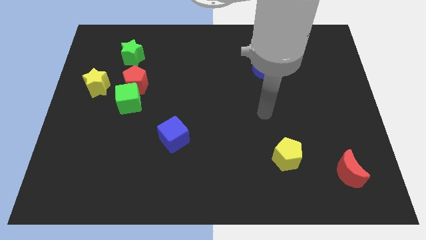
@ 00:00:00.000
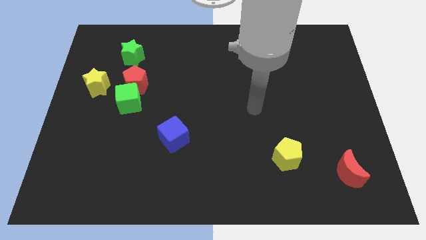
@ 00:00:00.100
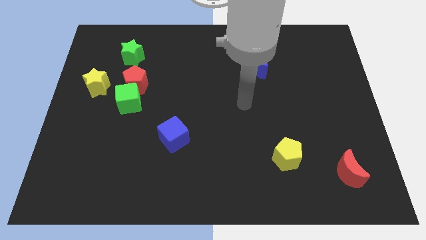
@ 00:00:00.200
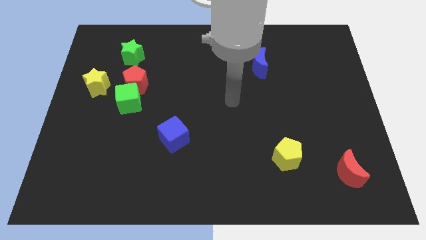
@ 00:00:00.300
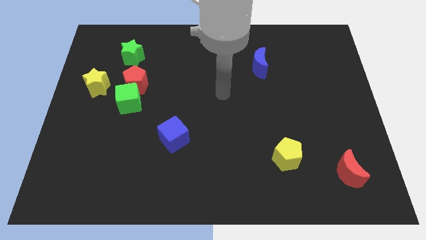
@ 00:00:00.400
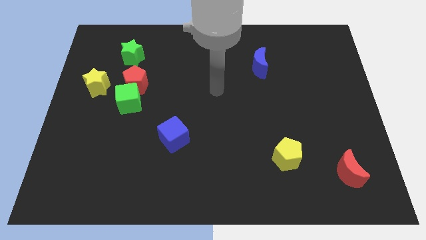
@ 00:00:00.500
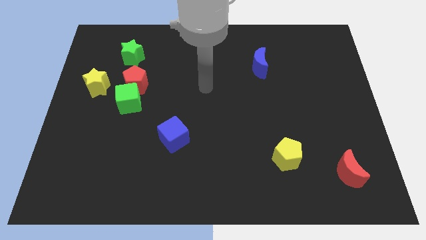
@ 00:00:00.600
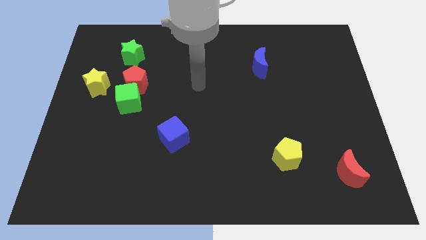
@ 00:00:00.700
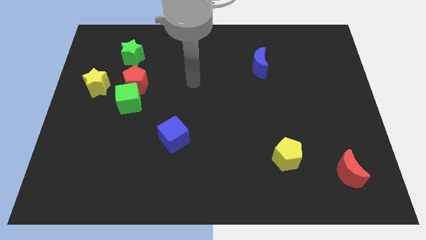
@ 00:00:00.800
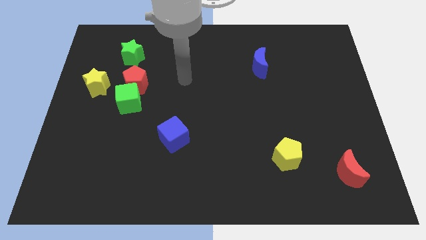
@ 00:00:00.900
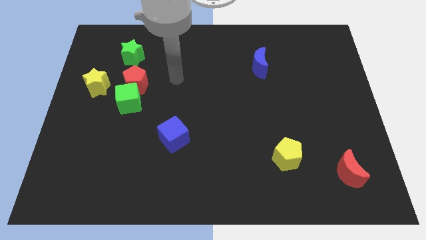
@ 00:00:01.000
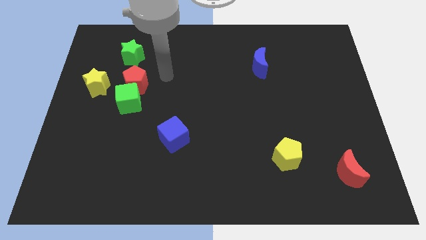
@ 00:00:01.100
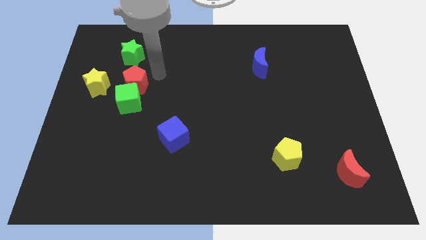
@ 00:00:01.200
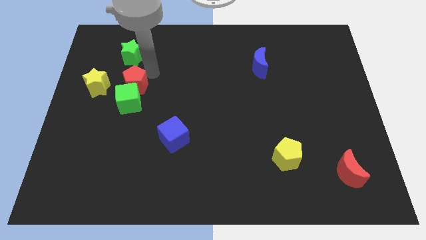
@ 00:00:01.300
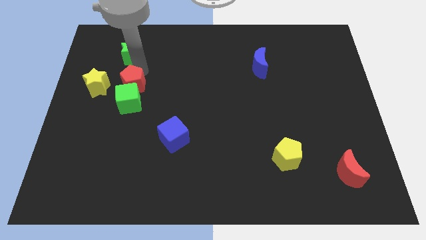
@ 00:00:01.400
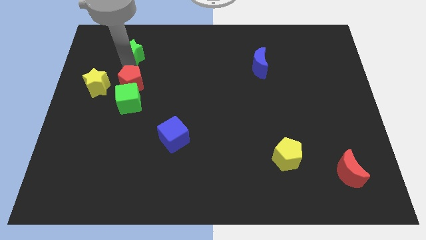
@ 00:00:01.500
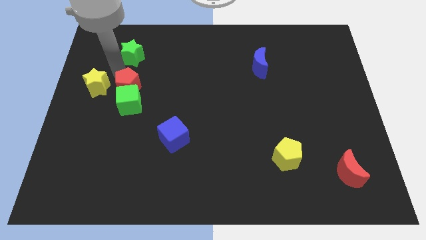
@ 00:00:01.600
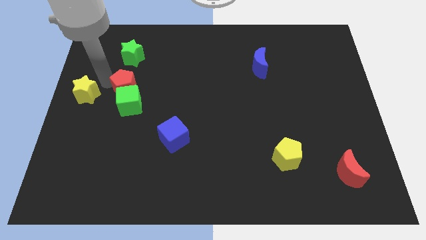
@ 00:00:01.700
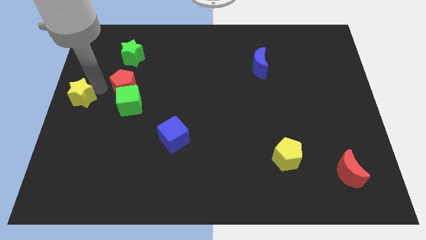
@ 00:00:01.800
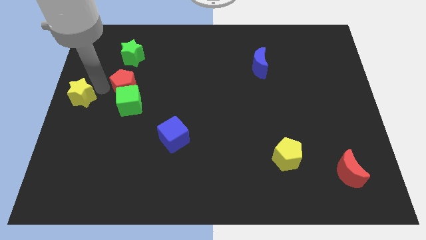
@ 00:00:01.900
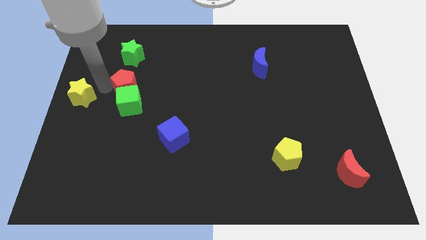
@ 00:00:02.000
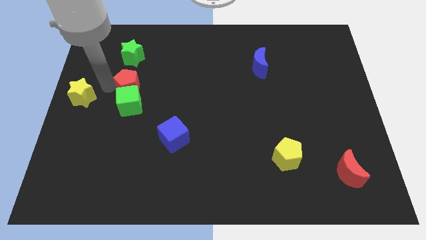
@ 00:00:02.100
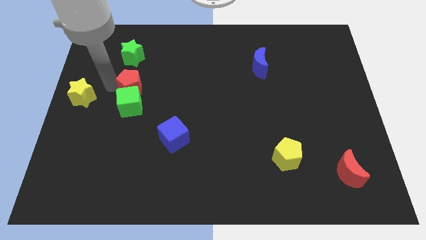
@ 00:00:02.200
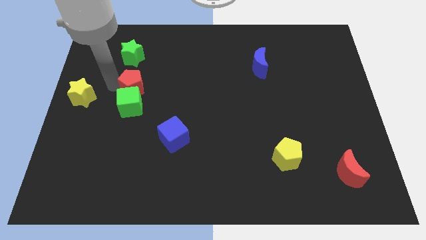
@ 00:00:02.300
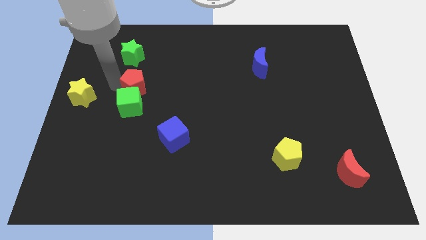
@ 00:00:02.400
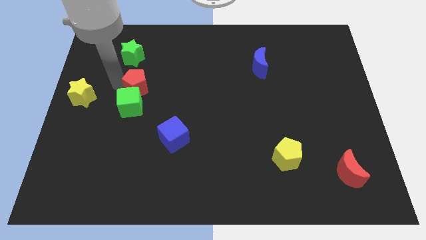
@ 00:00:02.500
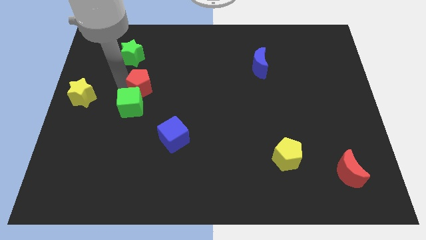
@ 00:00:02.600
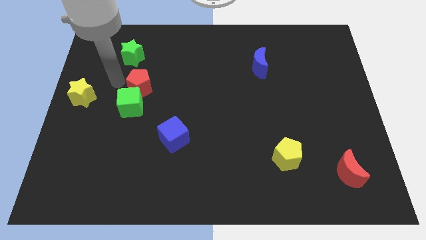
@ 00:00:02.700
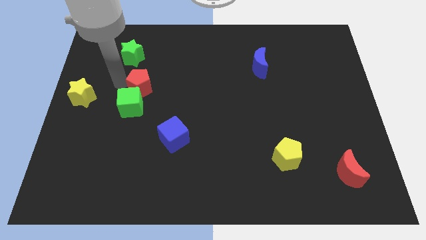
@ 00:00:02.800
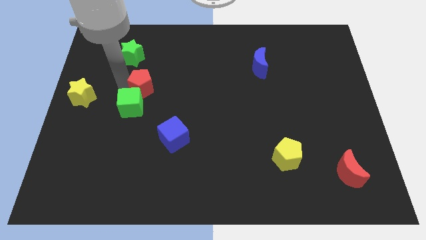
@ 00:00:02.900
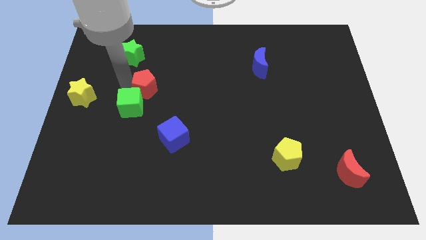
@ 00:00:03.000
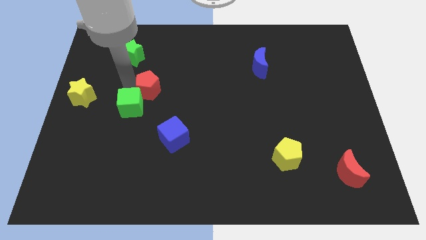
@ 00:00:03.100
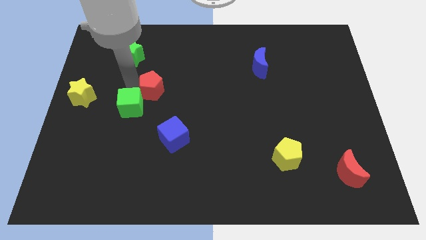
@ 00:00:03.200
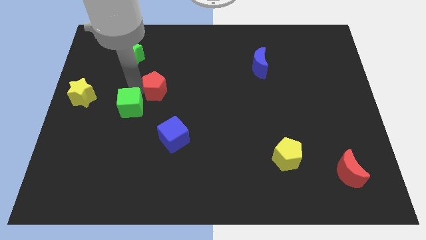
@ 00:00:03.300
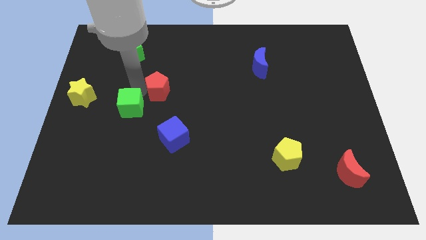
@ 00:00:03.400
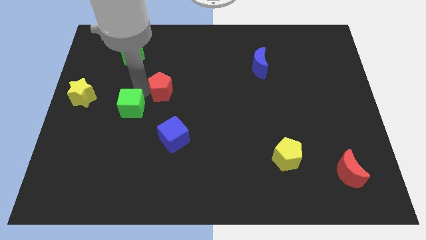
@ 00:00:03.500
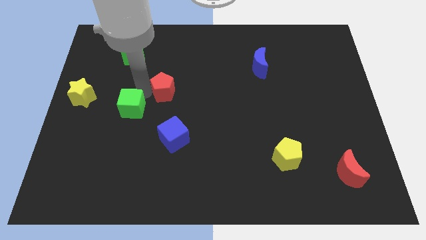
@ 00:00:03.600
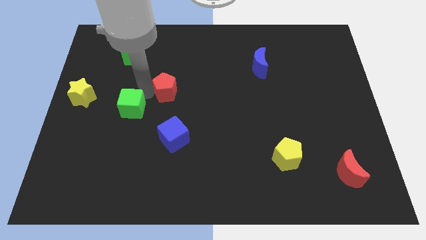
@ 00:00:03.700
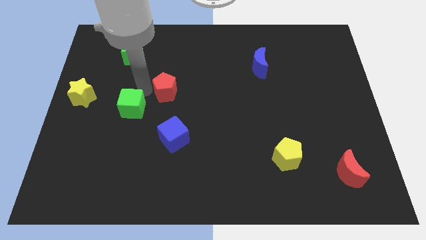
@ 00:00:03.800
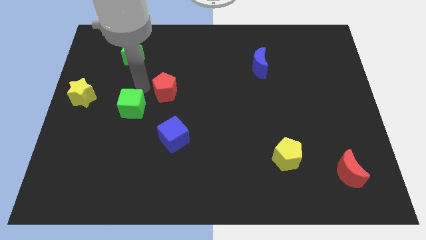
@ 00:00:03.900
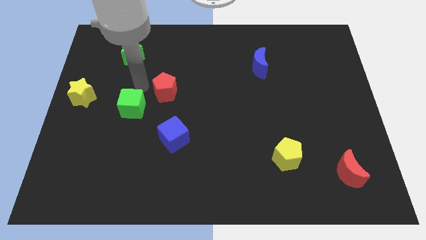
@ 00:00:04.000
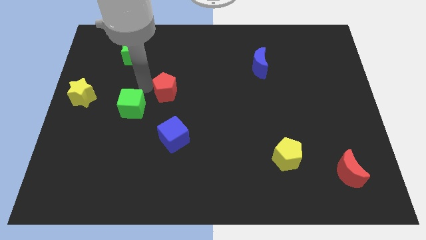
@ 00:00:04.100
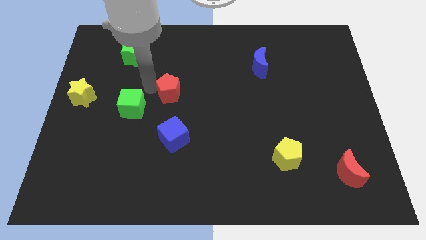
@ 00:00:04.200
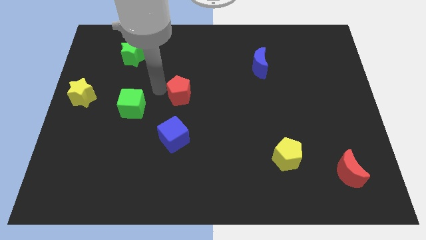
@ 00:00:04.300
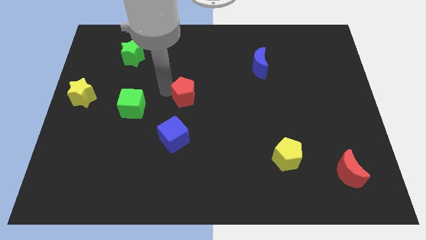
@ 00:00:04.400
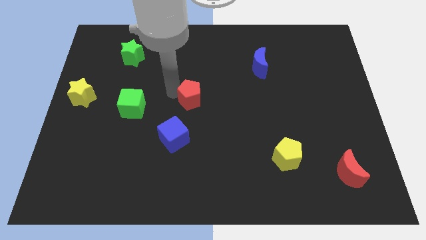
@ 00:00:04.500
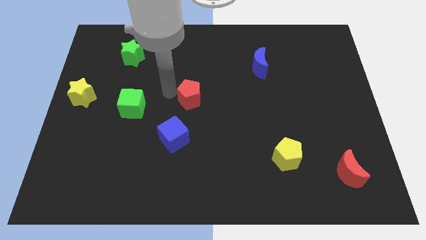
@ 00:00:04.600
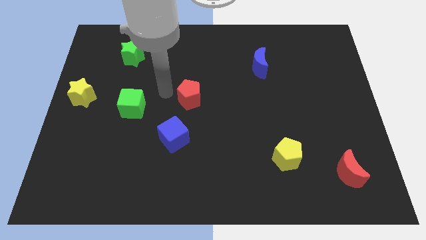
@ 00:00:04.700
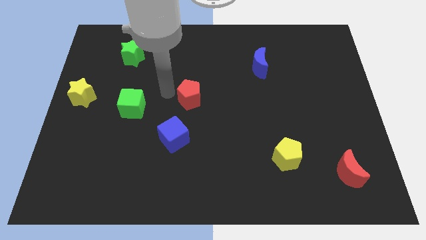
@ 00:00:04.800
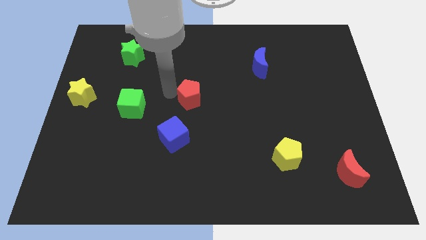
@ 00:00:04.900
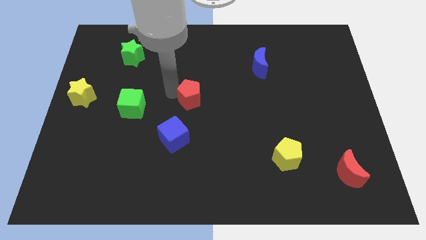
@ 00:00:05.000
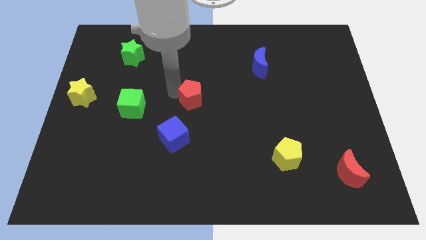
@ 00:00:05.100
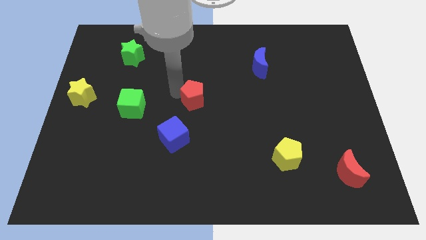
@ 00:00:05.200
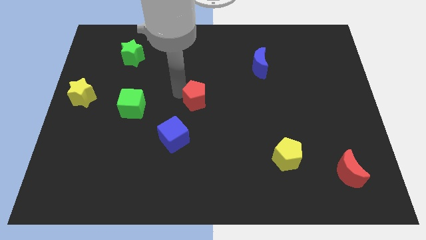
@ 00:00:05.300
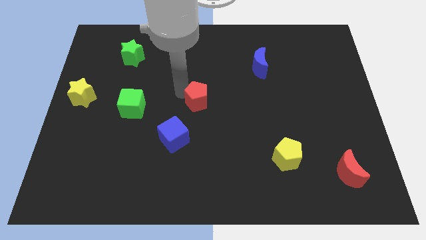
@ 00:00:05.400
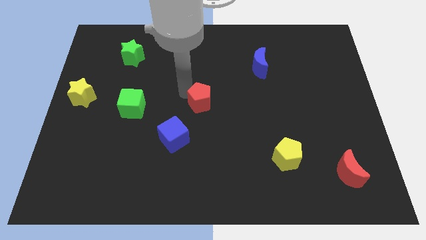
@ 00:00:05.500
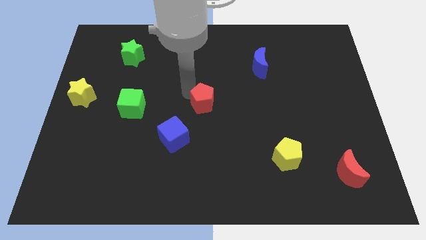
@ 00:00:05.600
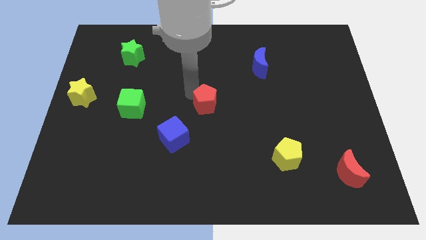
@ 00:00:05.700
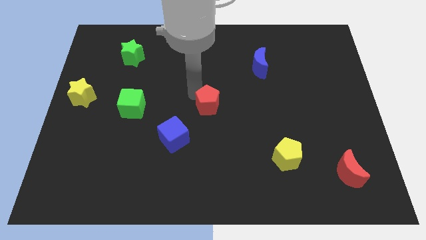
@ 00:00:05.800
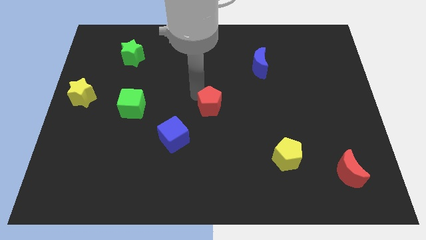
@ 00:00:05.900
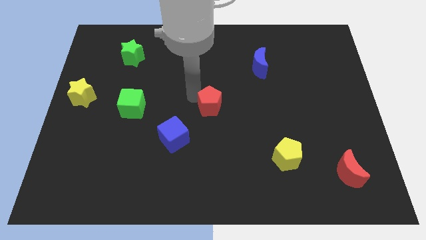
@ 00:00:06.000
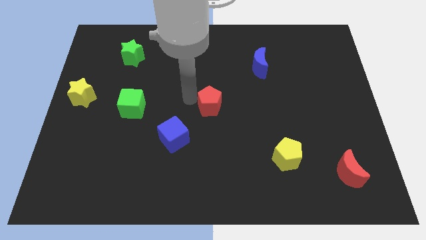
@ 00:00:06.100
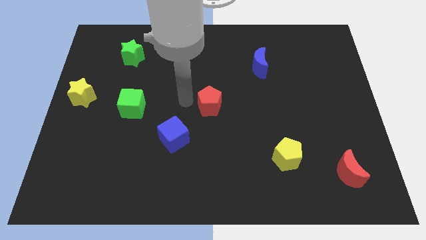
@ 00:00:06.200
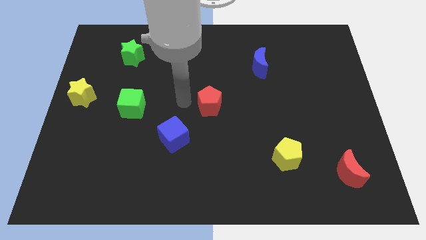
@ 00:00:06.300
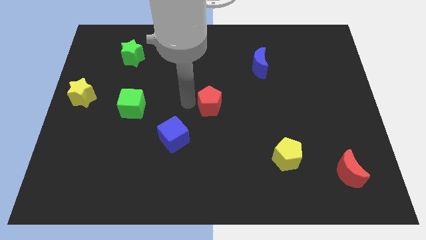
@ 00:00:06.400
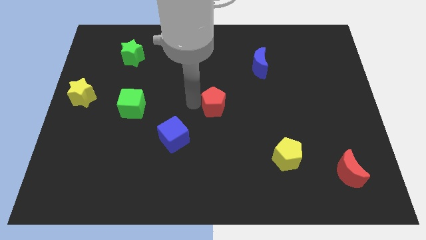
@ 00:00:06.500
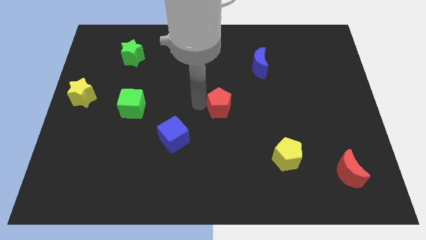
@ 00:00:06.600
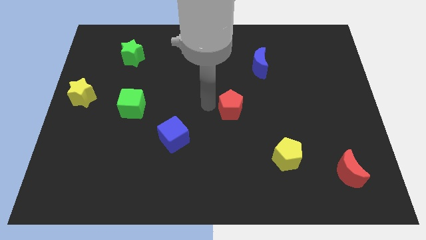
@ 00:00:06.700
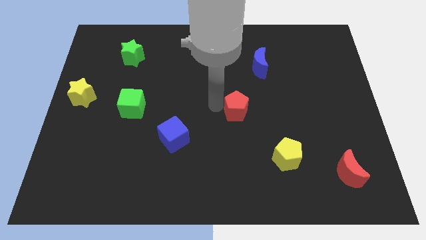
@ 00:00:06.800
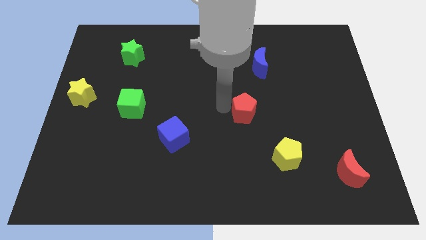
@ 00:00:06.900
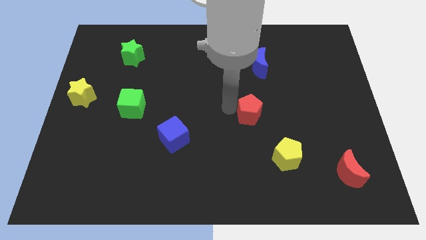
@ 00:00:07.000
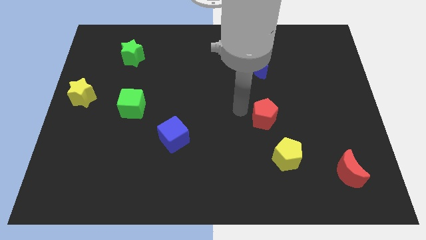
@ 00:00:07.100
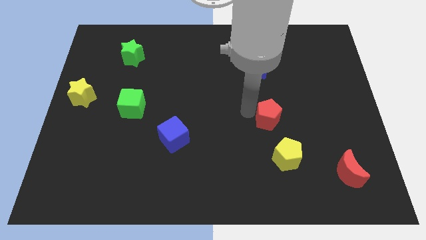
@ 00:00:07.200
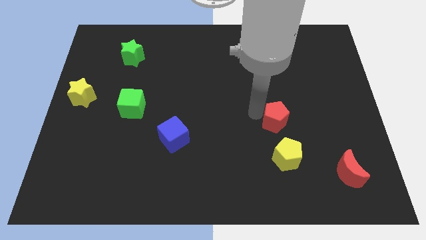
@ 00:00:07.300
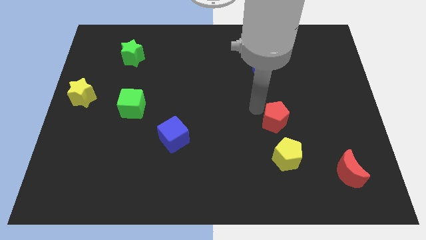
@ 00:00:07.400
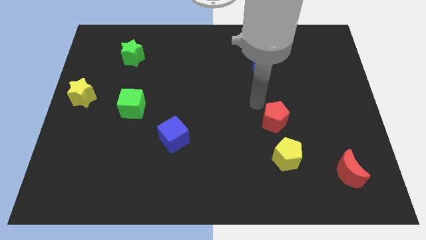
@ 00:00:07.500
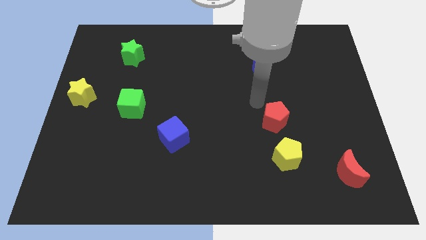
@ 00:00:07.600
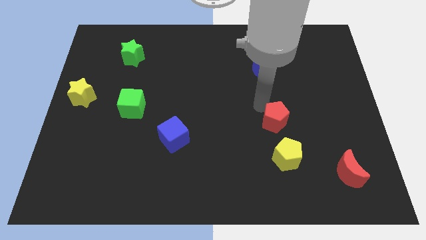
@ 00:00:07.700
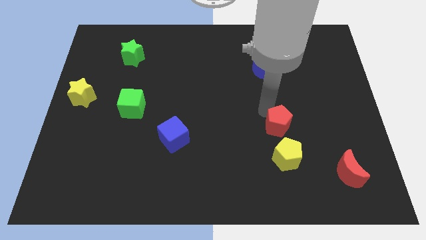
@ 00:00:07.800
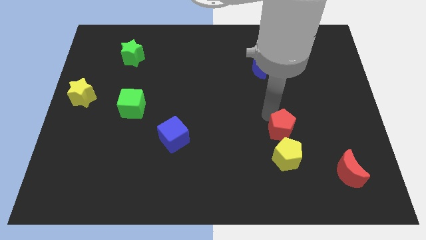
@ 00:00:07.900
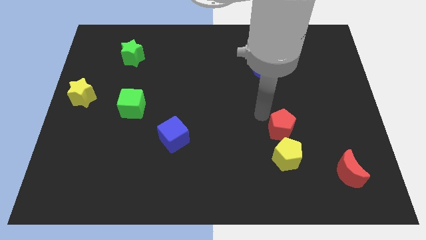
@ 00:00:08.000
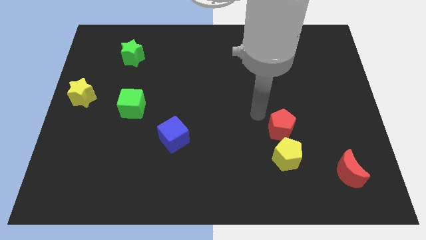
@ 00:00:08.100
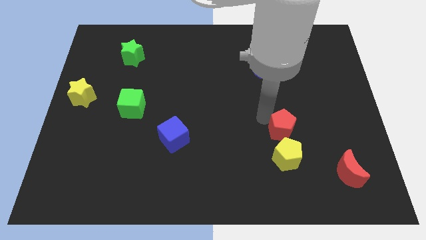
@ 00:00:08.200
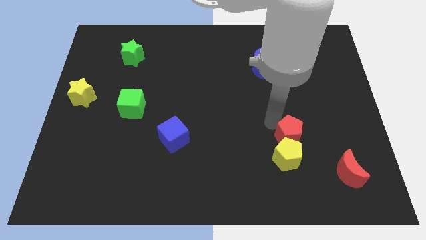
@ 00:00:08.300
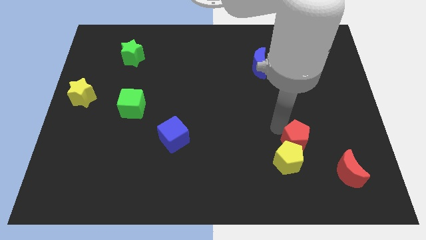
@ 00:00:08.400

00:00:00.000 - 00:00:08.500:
put the red pentagon to the top left of the red moon
